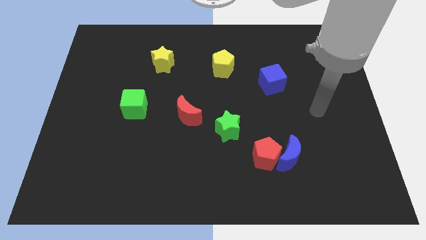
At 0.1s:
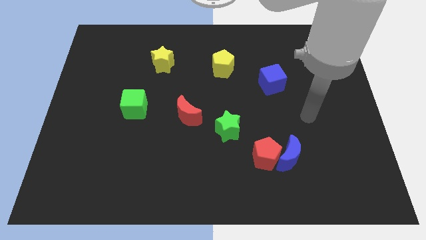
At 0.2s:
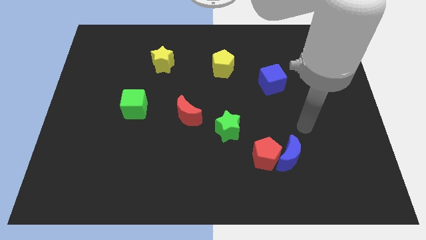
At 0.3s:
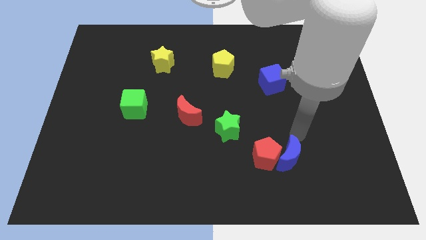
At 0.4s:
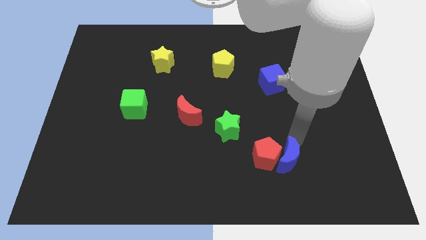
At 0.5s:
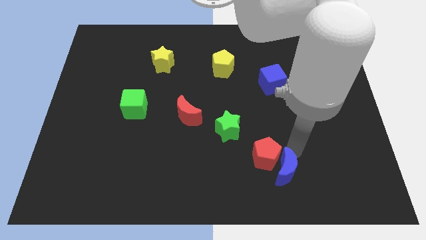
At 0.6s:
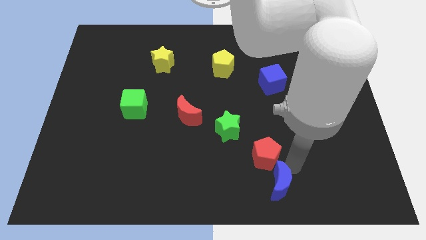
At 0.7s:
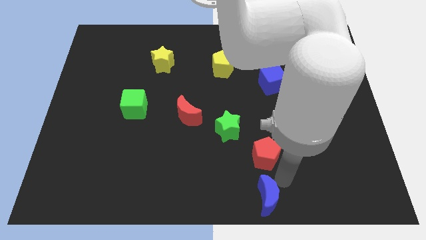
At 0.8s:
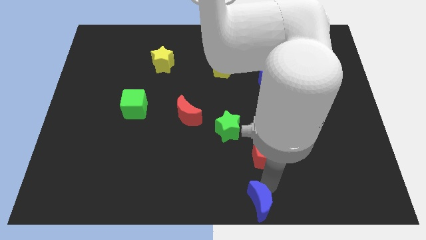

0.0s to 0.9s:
separate the red pentagon from the blue moon

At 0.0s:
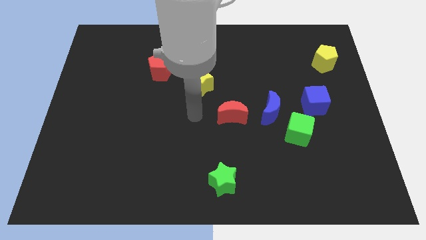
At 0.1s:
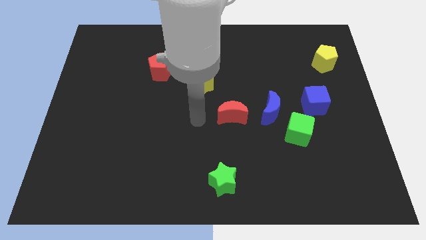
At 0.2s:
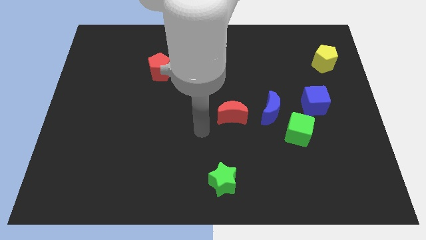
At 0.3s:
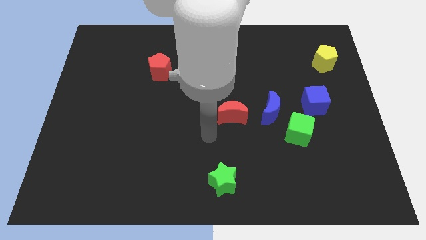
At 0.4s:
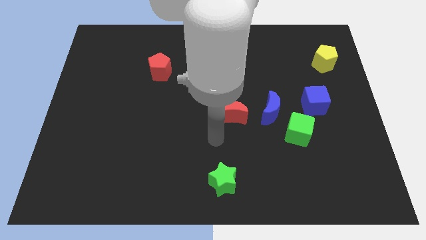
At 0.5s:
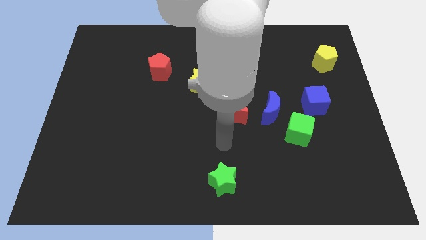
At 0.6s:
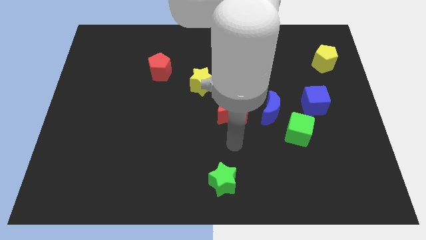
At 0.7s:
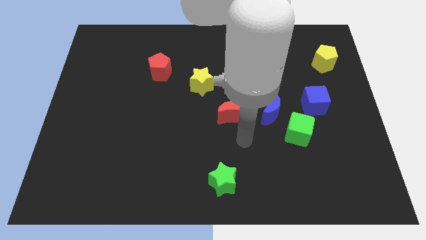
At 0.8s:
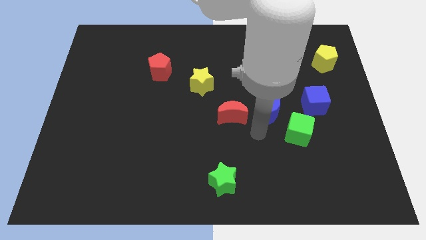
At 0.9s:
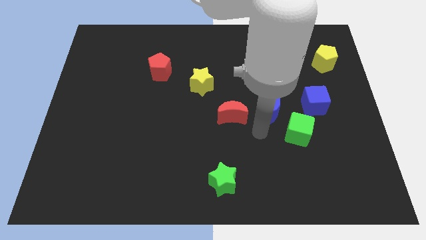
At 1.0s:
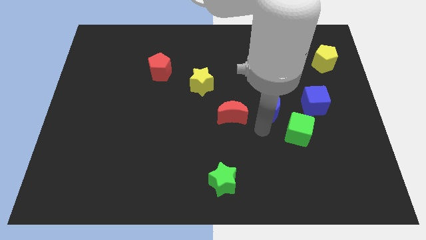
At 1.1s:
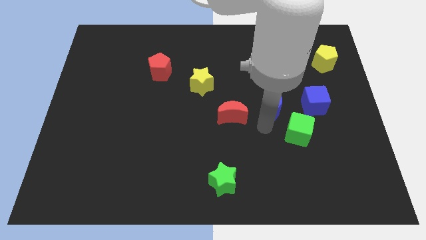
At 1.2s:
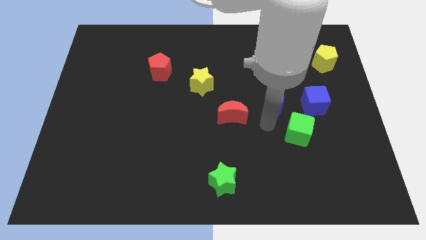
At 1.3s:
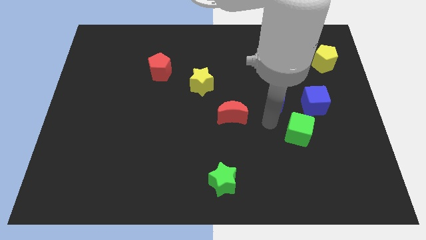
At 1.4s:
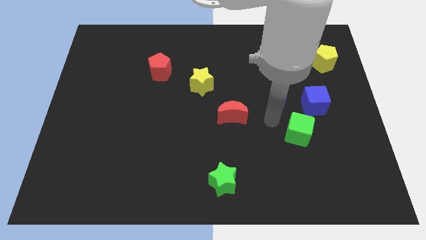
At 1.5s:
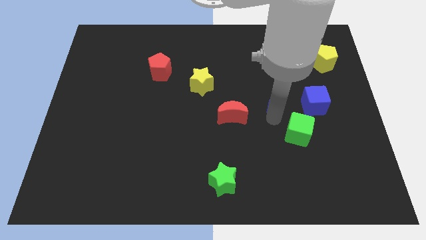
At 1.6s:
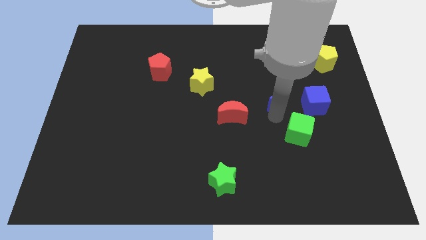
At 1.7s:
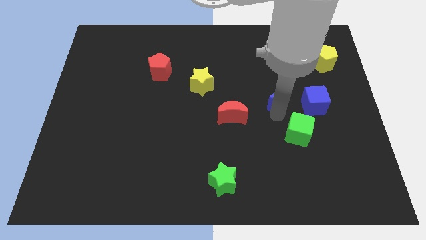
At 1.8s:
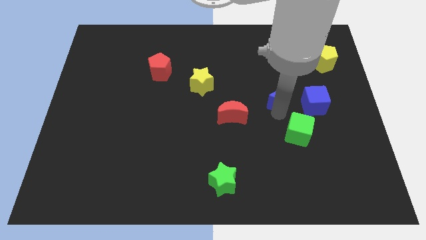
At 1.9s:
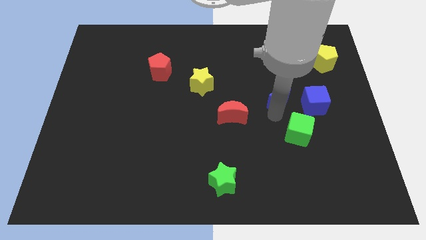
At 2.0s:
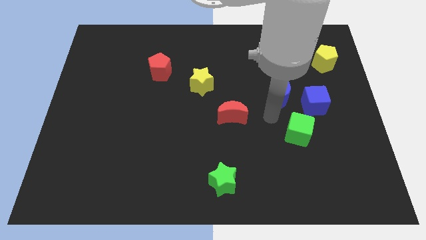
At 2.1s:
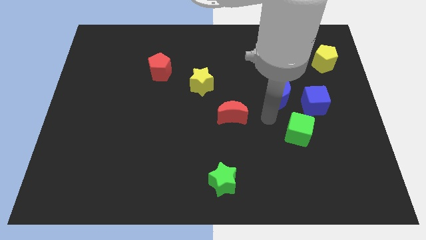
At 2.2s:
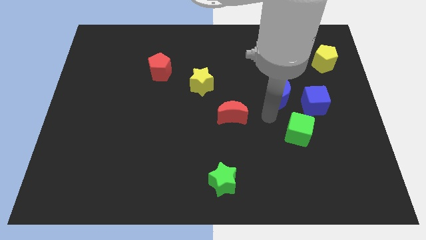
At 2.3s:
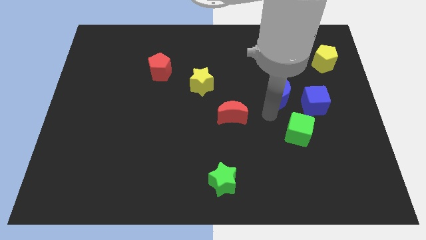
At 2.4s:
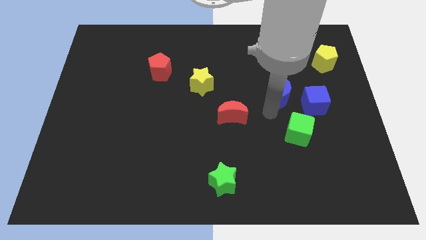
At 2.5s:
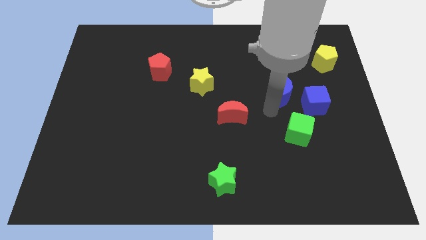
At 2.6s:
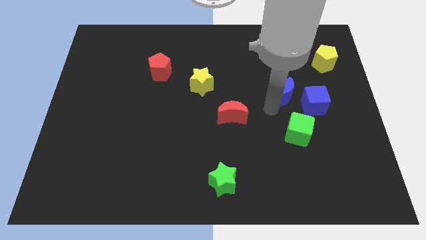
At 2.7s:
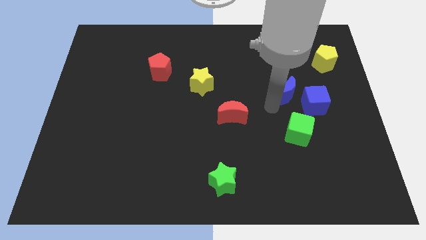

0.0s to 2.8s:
pull the blue moon apart from the green cube and red moon

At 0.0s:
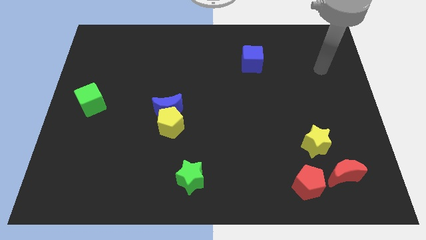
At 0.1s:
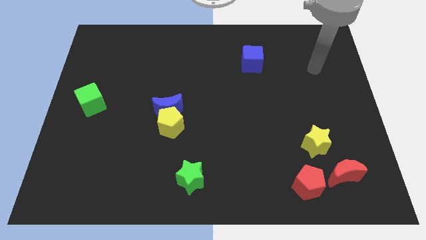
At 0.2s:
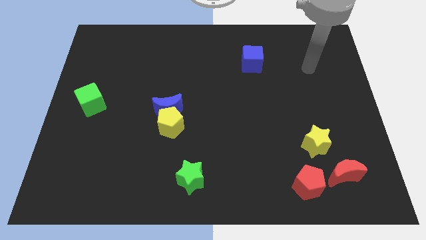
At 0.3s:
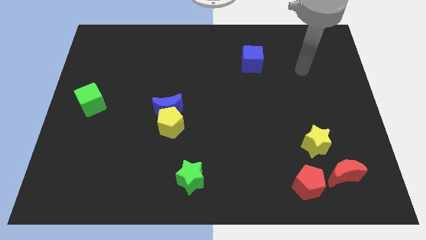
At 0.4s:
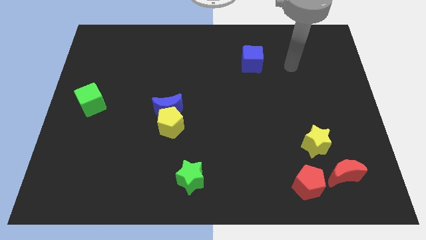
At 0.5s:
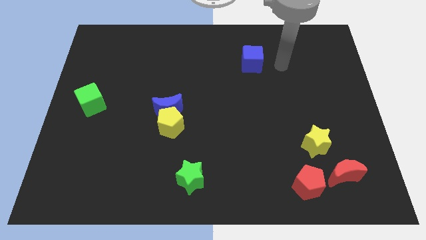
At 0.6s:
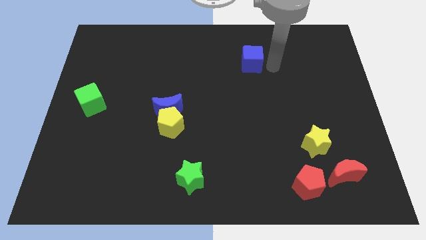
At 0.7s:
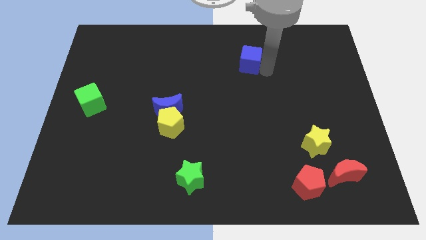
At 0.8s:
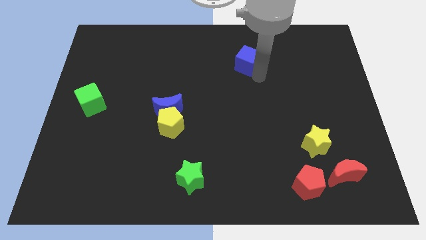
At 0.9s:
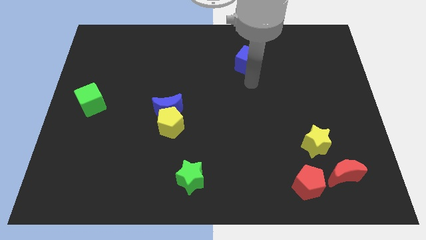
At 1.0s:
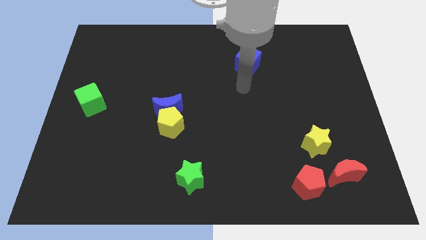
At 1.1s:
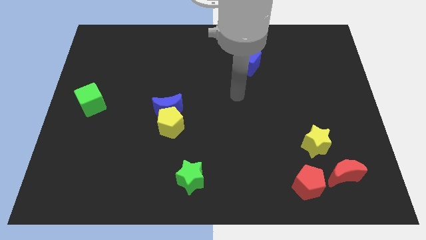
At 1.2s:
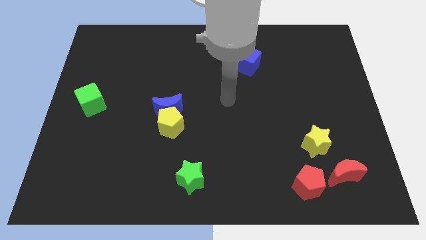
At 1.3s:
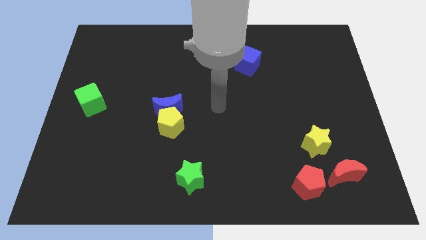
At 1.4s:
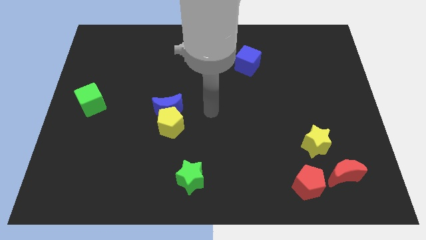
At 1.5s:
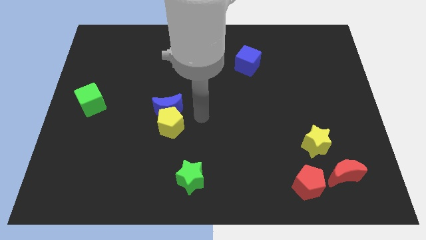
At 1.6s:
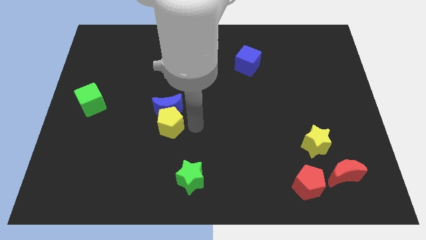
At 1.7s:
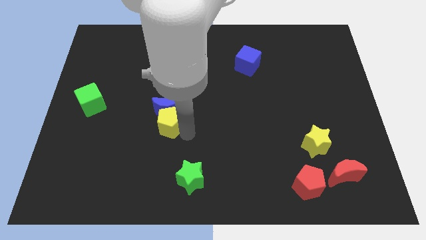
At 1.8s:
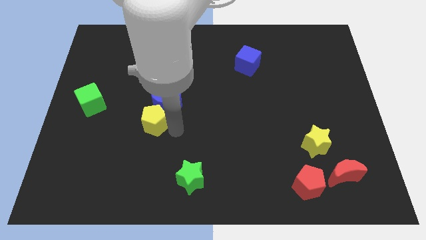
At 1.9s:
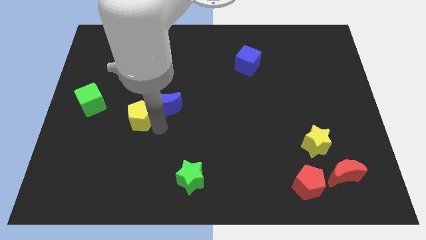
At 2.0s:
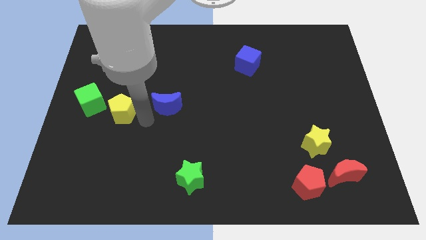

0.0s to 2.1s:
move the blue moon away from the yellow pentagon

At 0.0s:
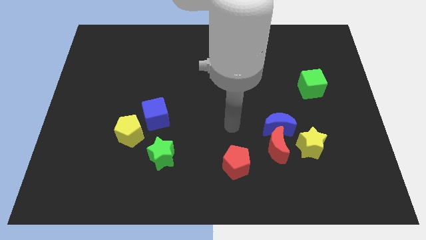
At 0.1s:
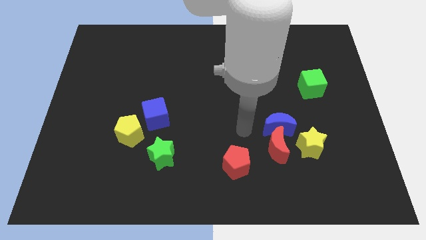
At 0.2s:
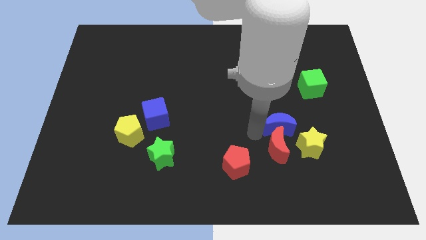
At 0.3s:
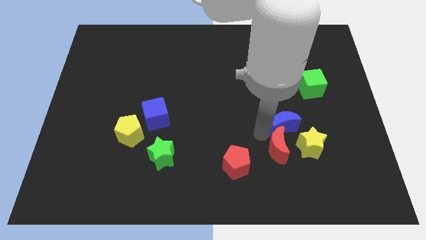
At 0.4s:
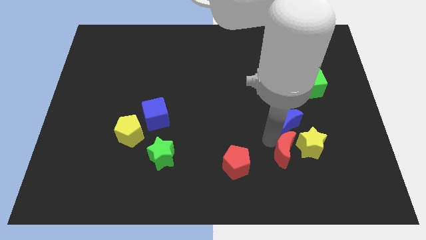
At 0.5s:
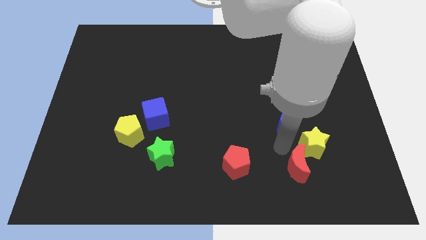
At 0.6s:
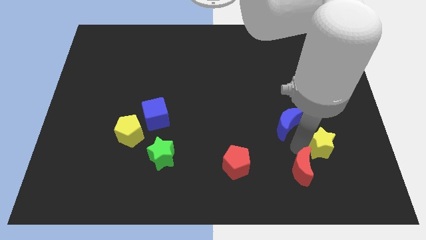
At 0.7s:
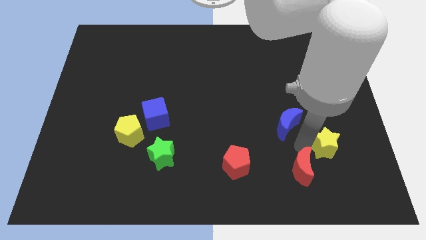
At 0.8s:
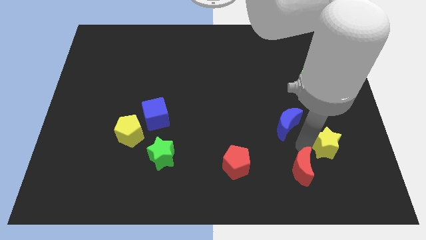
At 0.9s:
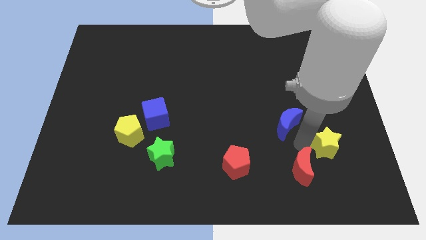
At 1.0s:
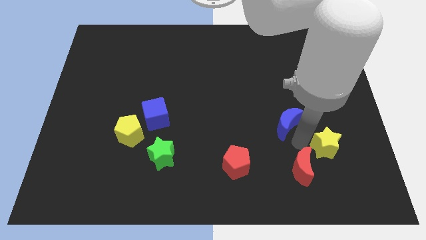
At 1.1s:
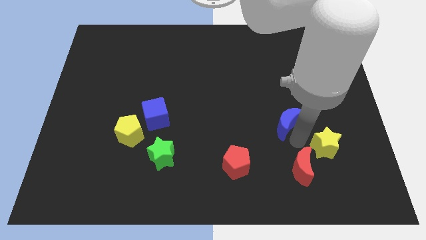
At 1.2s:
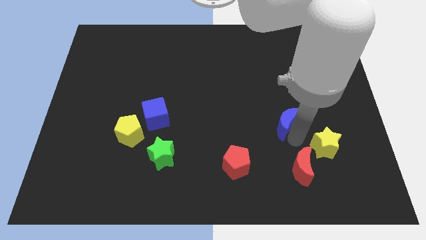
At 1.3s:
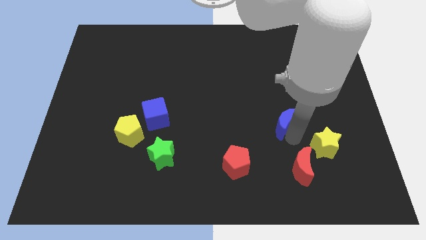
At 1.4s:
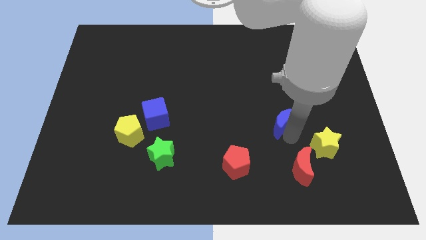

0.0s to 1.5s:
move the blue moon away from the red moon and yellow star

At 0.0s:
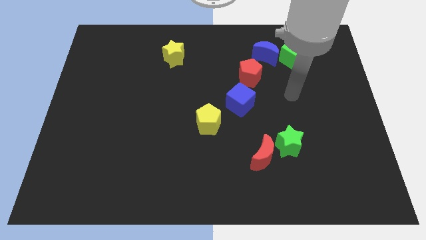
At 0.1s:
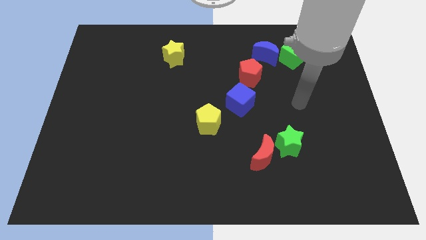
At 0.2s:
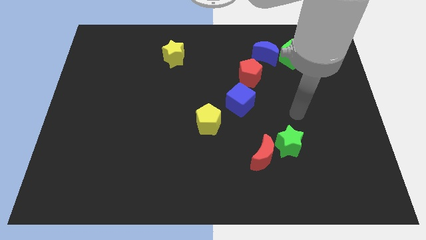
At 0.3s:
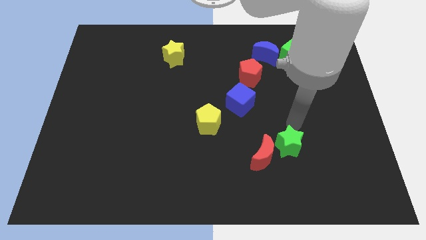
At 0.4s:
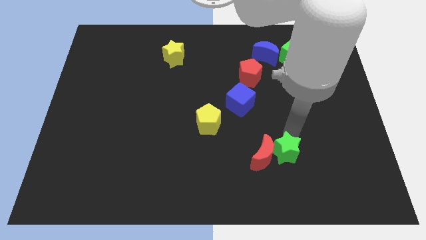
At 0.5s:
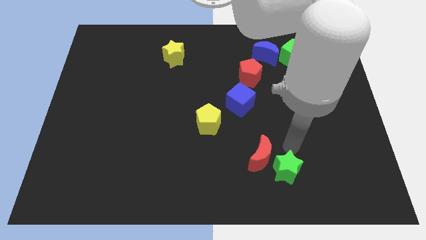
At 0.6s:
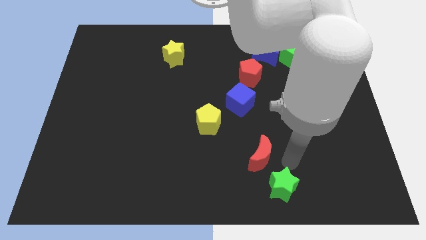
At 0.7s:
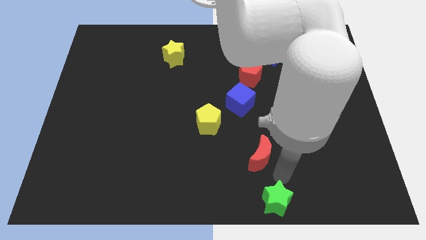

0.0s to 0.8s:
pull the red moon apart from the green star

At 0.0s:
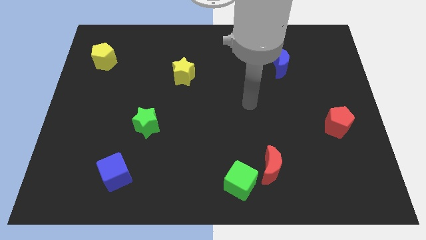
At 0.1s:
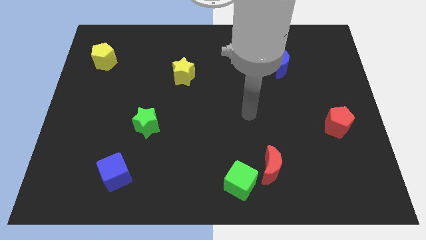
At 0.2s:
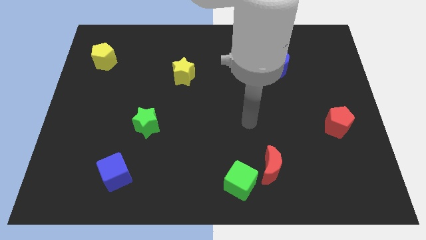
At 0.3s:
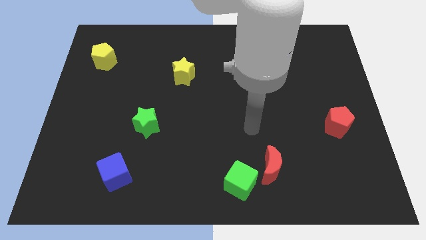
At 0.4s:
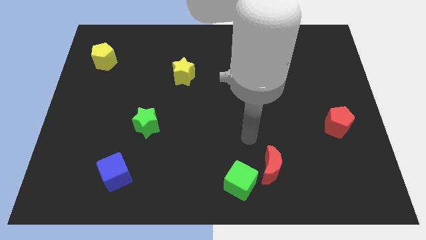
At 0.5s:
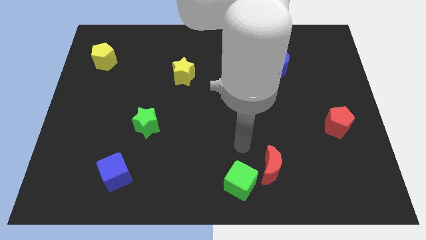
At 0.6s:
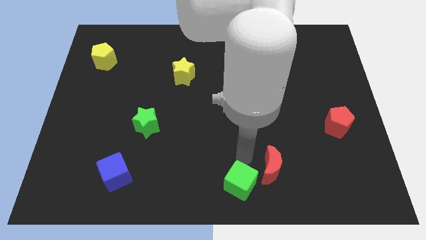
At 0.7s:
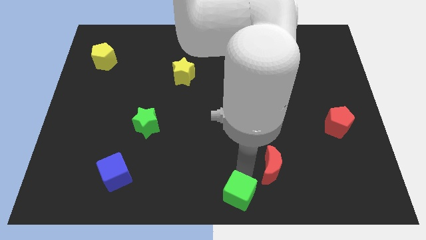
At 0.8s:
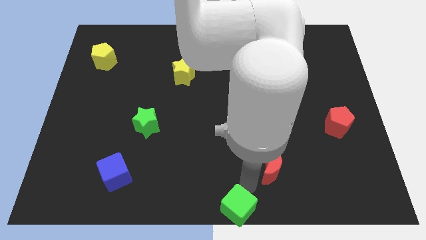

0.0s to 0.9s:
separate the red moon from the green cube

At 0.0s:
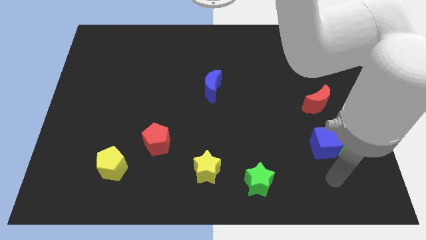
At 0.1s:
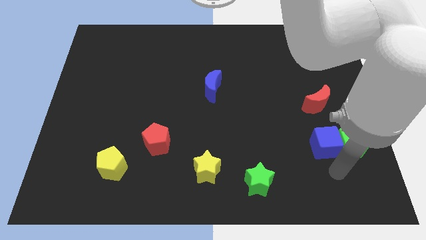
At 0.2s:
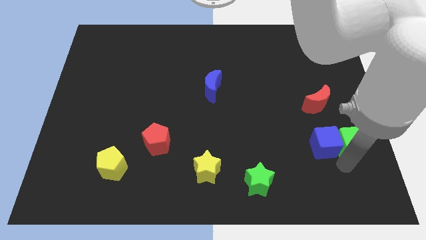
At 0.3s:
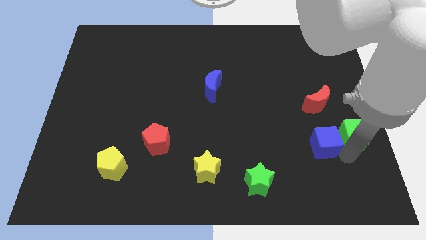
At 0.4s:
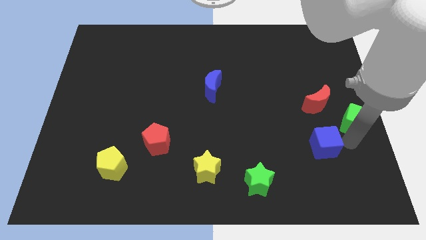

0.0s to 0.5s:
separate the blue cube from the green cube
